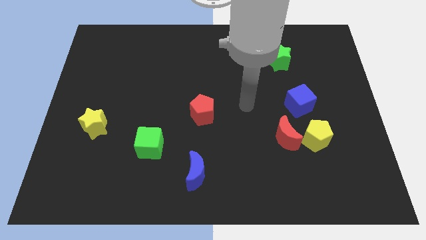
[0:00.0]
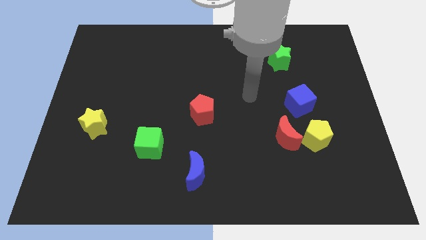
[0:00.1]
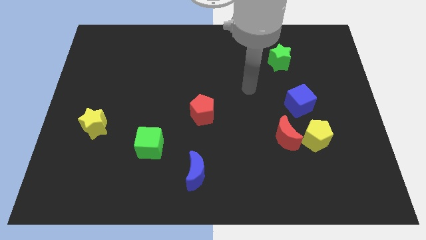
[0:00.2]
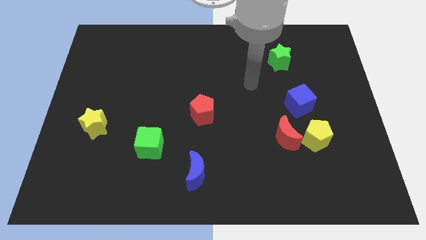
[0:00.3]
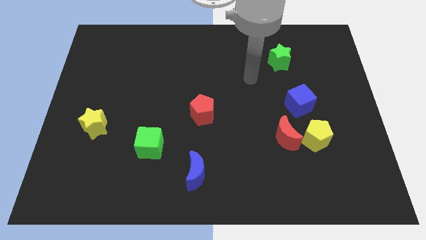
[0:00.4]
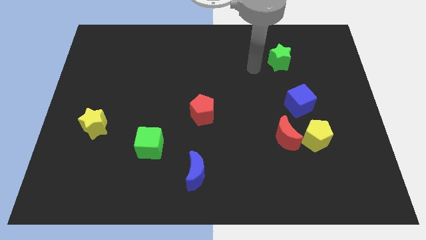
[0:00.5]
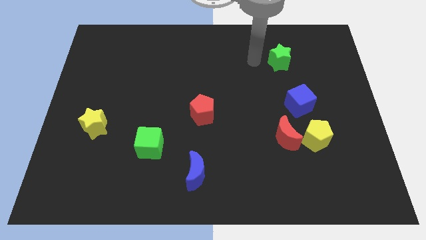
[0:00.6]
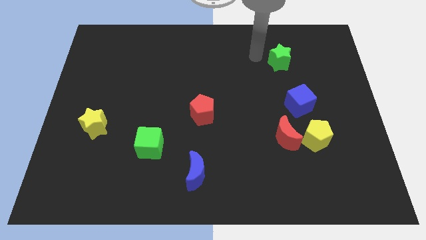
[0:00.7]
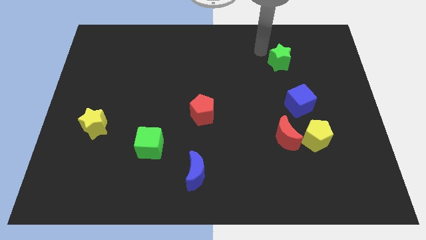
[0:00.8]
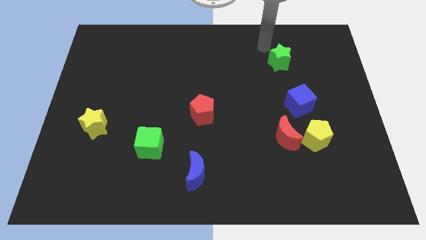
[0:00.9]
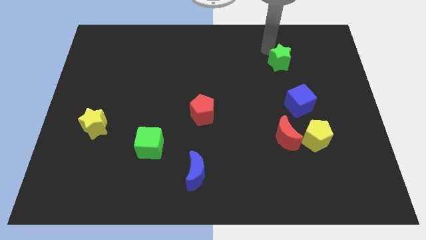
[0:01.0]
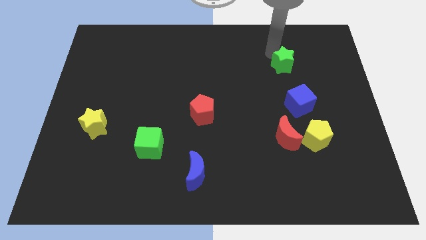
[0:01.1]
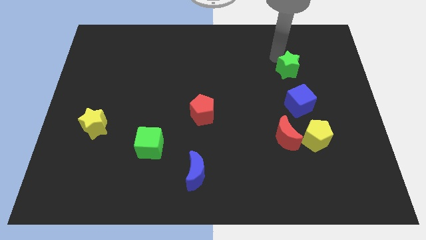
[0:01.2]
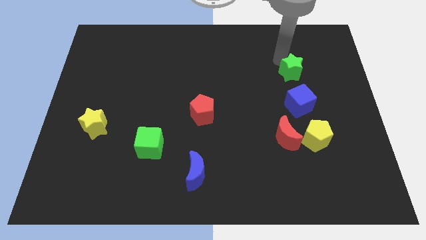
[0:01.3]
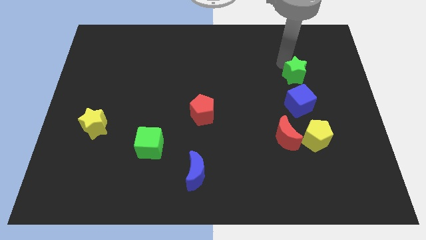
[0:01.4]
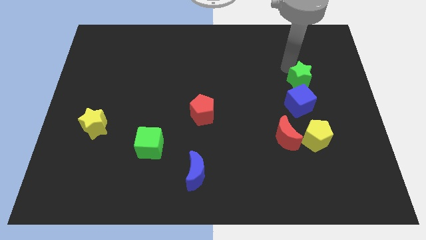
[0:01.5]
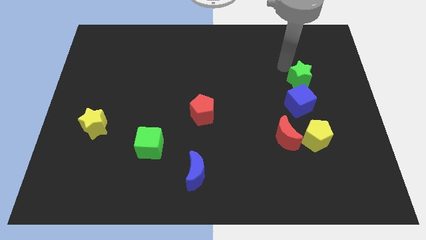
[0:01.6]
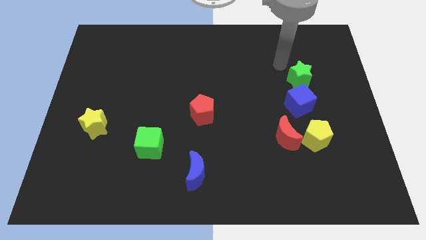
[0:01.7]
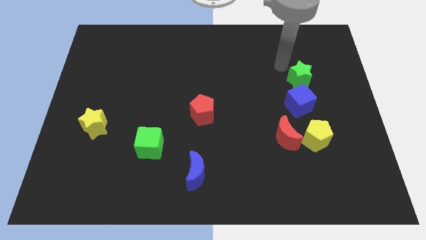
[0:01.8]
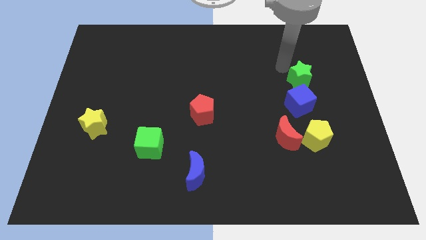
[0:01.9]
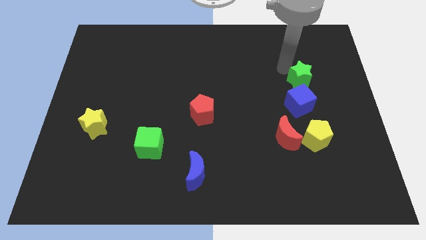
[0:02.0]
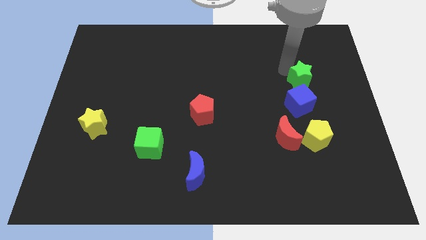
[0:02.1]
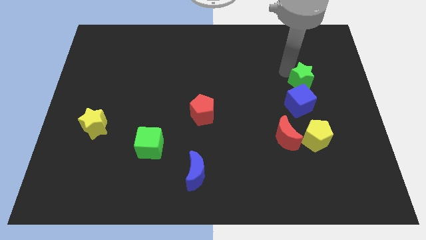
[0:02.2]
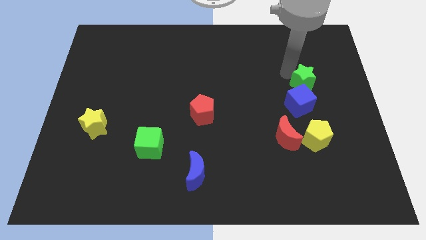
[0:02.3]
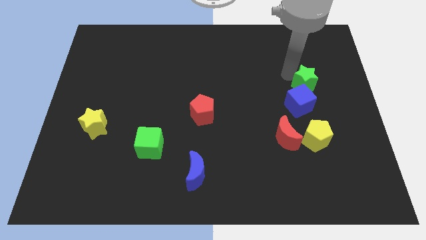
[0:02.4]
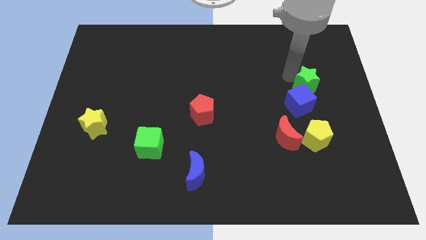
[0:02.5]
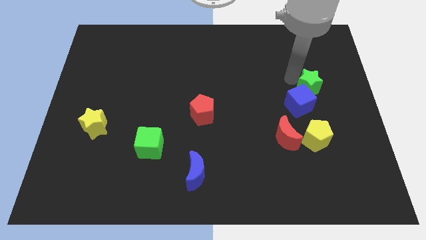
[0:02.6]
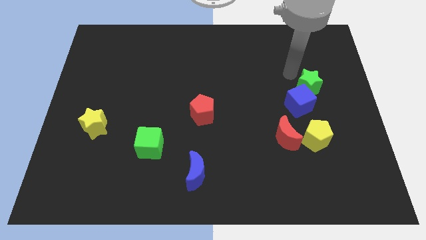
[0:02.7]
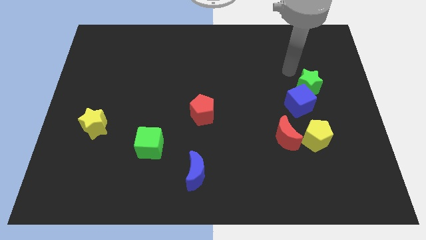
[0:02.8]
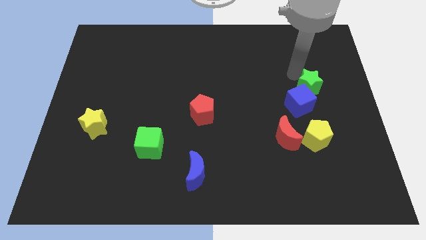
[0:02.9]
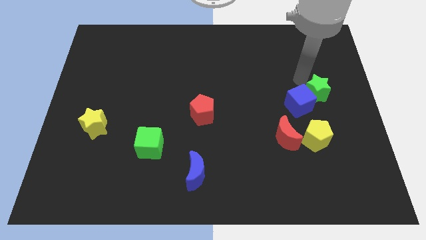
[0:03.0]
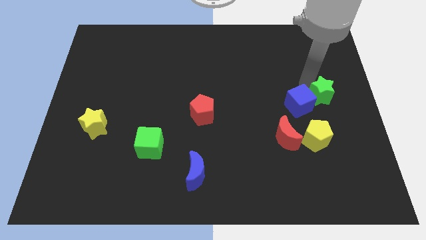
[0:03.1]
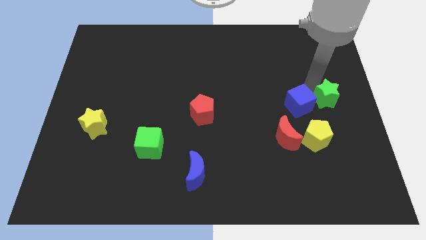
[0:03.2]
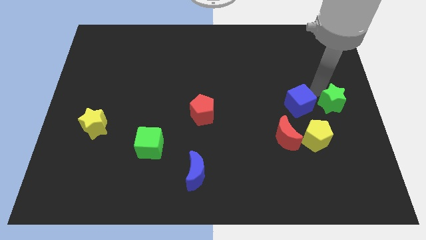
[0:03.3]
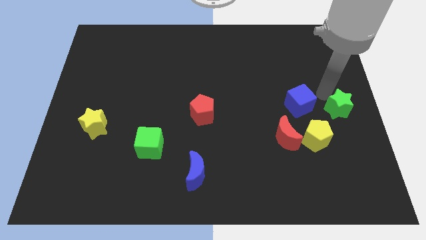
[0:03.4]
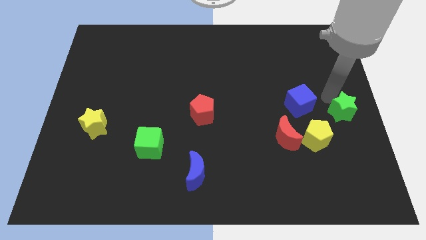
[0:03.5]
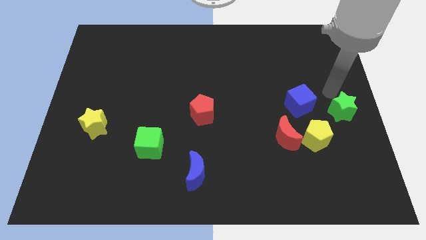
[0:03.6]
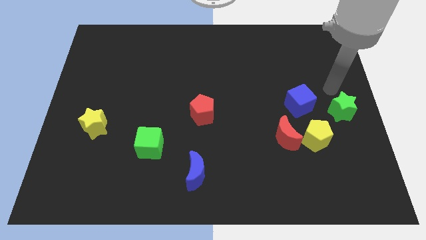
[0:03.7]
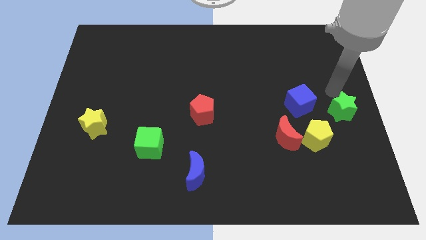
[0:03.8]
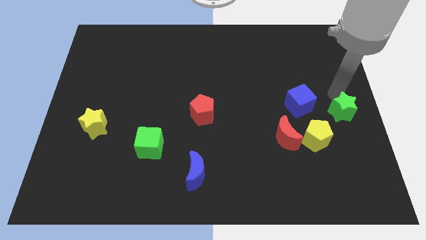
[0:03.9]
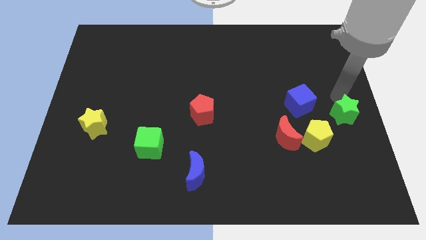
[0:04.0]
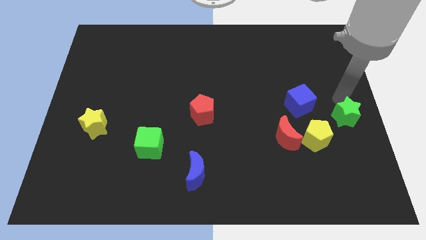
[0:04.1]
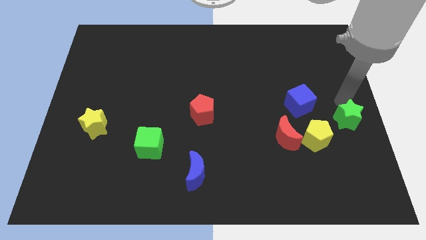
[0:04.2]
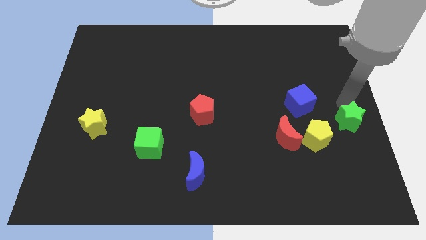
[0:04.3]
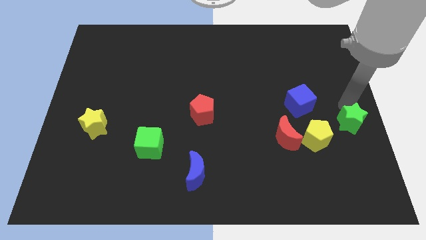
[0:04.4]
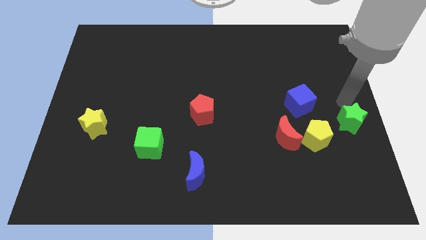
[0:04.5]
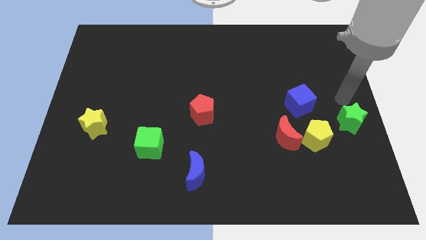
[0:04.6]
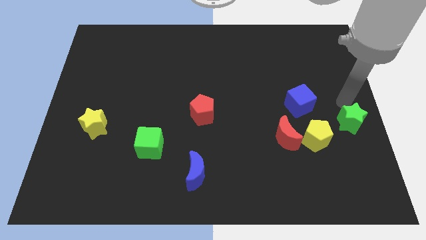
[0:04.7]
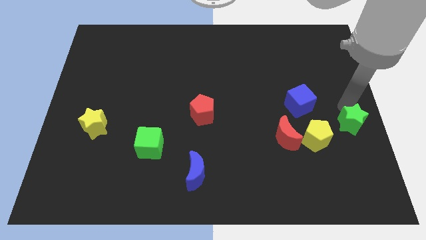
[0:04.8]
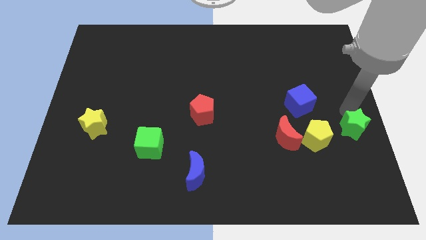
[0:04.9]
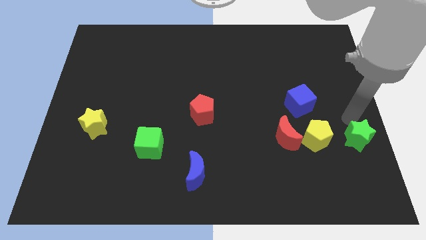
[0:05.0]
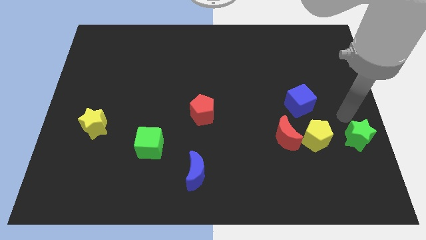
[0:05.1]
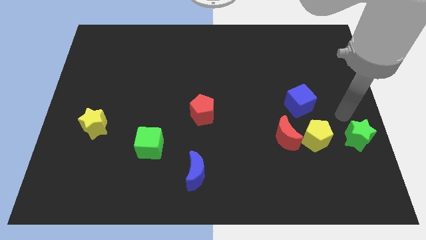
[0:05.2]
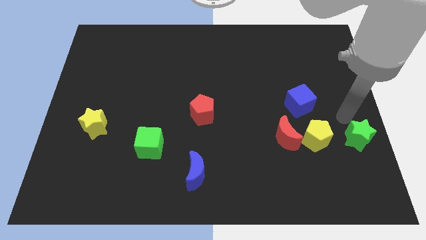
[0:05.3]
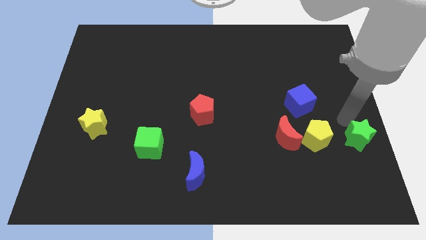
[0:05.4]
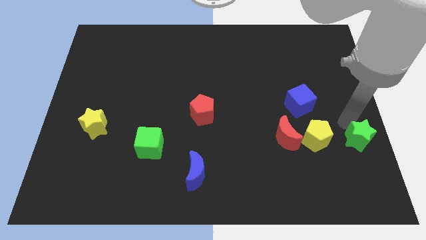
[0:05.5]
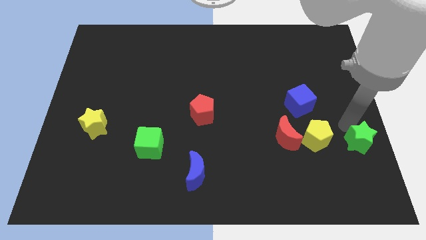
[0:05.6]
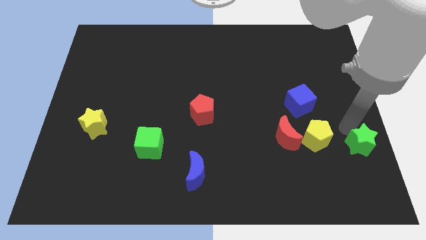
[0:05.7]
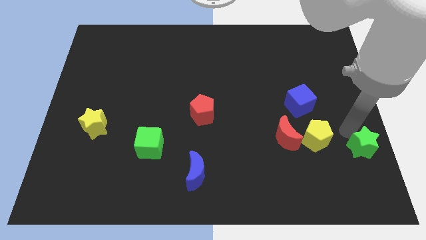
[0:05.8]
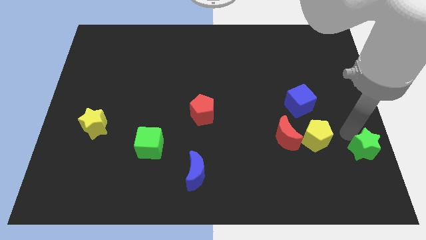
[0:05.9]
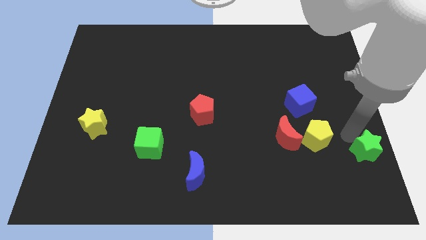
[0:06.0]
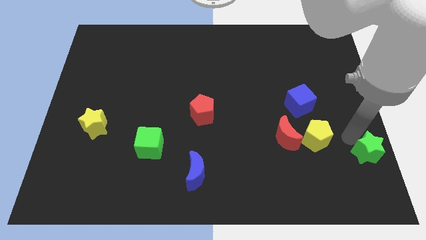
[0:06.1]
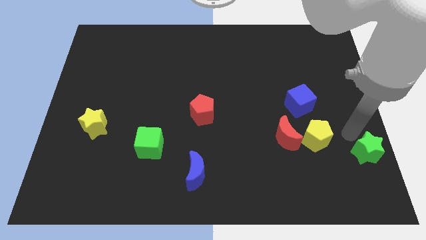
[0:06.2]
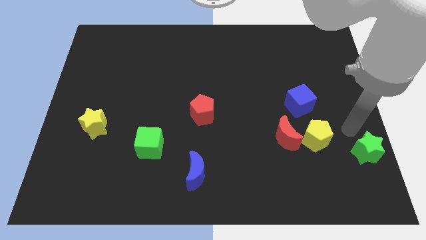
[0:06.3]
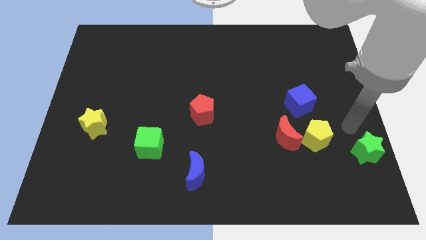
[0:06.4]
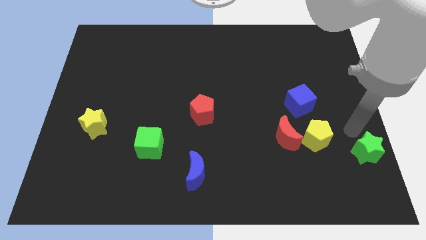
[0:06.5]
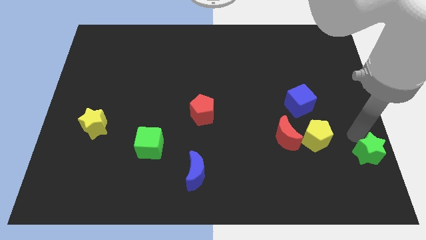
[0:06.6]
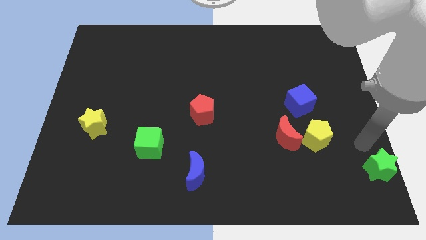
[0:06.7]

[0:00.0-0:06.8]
move the green star to the bottom right of the board
